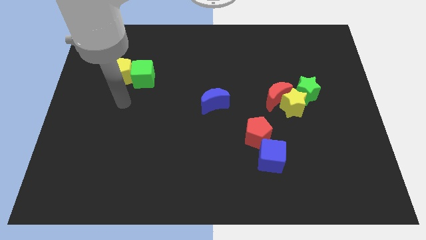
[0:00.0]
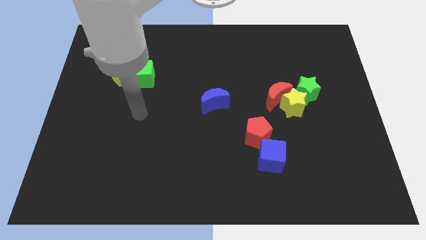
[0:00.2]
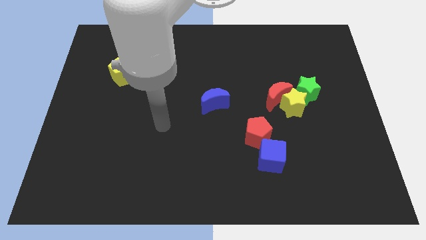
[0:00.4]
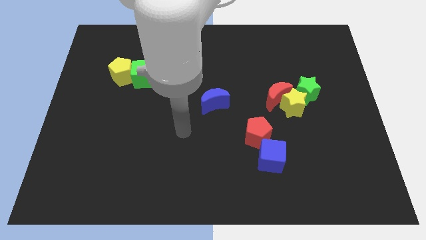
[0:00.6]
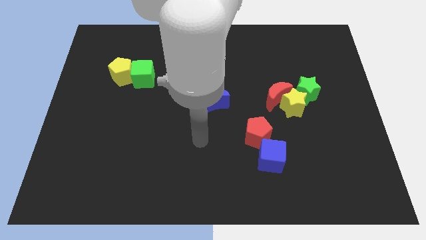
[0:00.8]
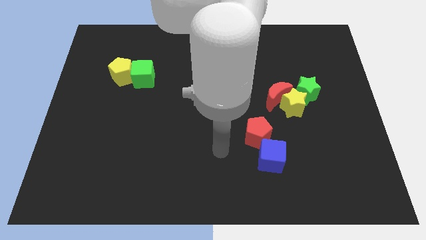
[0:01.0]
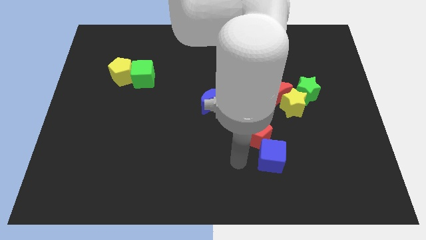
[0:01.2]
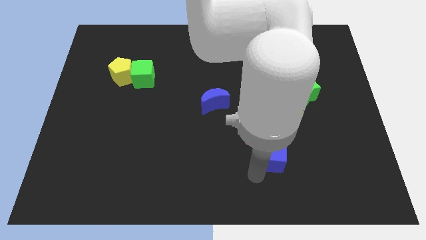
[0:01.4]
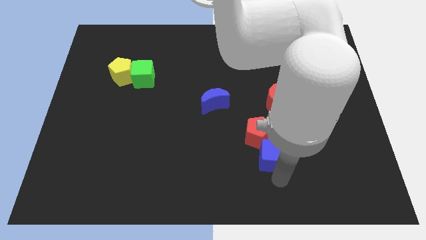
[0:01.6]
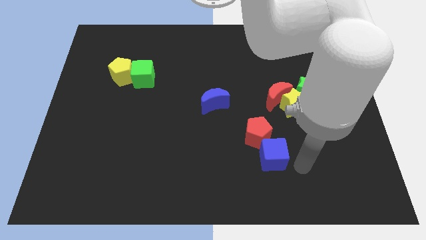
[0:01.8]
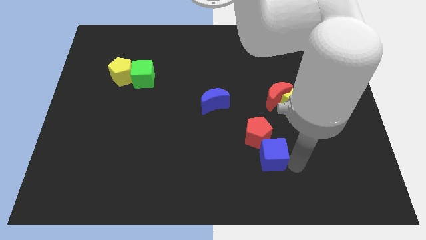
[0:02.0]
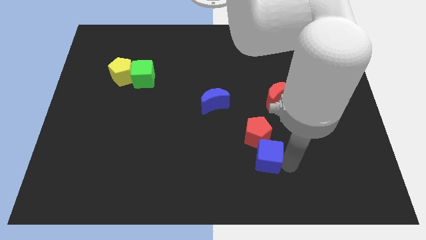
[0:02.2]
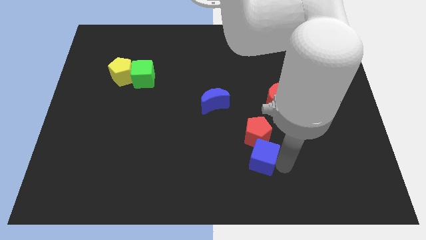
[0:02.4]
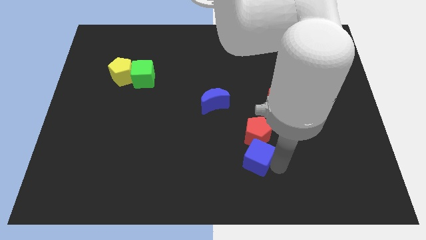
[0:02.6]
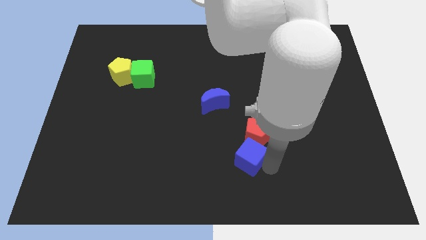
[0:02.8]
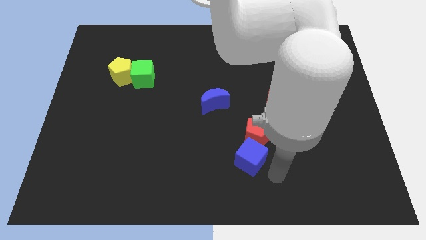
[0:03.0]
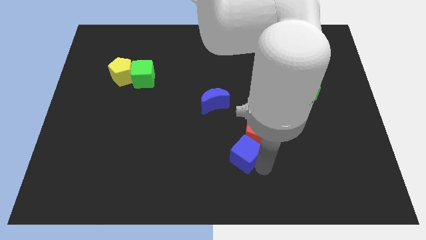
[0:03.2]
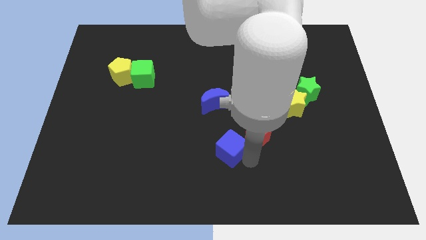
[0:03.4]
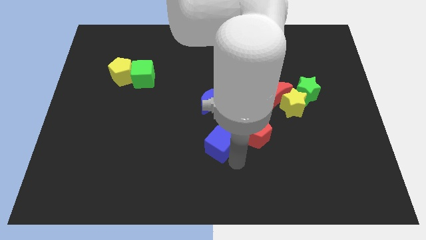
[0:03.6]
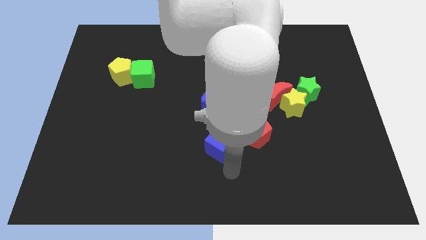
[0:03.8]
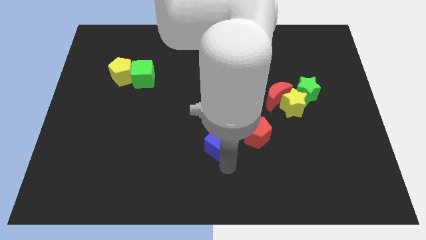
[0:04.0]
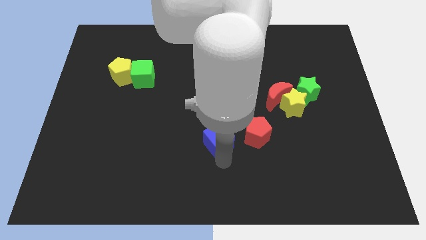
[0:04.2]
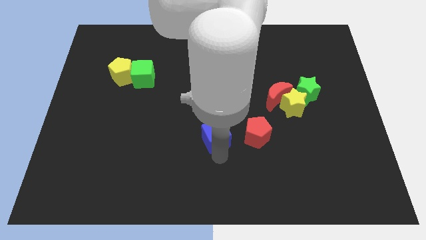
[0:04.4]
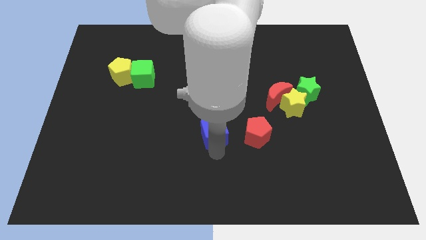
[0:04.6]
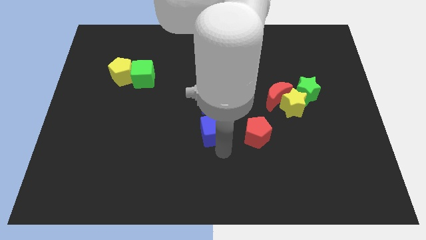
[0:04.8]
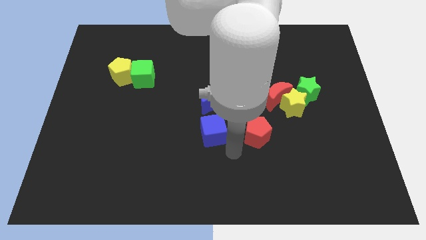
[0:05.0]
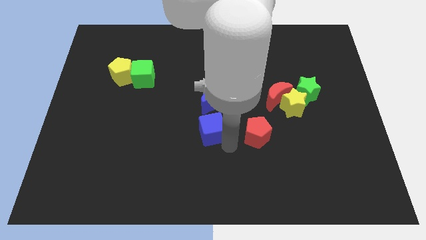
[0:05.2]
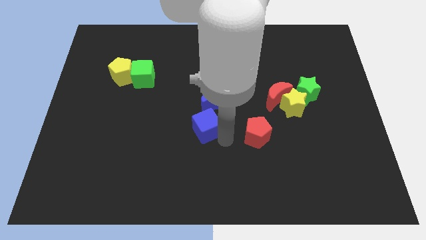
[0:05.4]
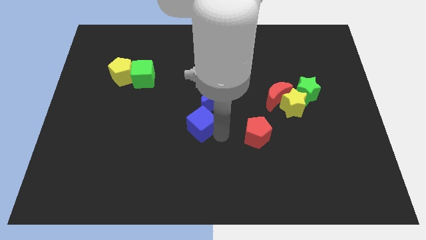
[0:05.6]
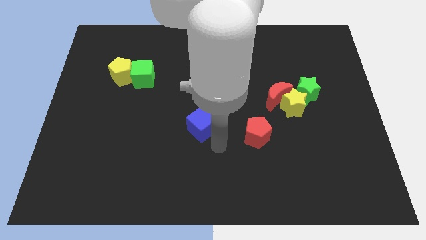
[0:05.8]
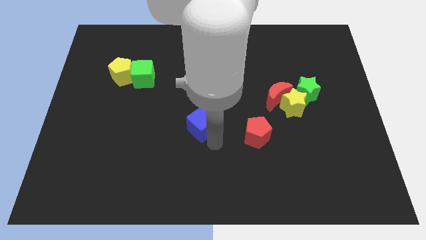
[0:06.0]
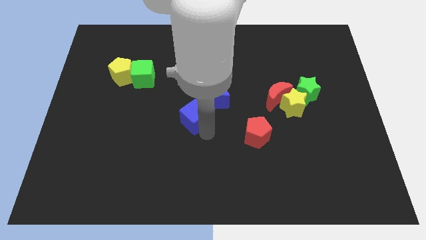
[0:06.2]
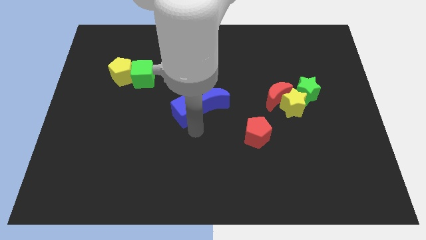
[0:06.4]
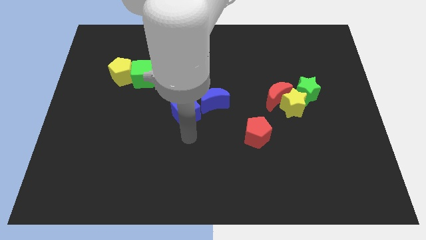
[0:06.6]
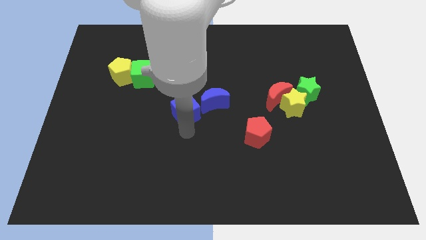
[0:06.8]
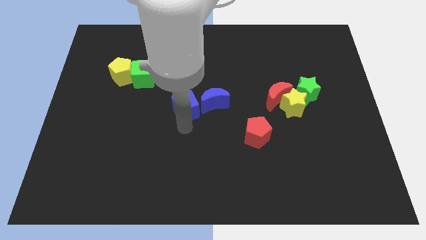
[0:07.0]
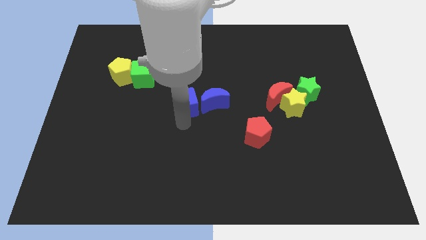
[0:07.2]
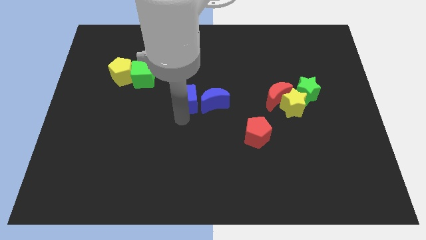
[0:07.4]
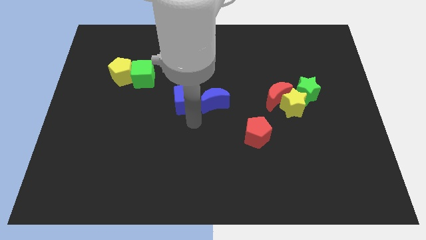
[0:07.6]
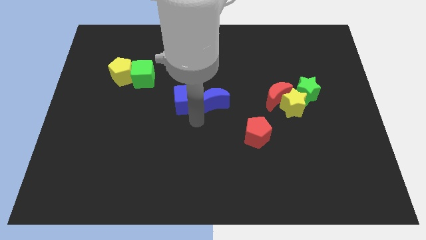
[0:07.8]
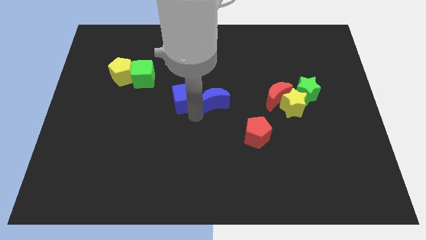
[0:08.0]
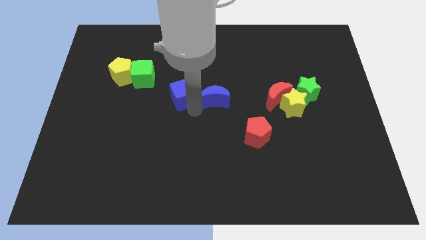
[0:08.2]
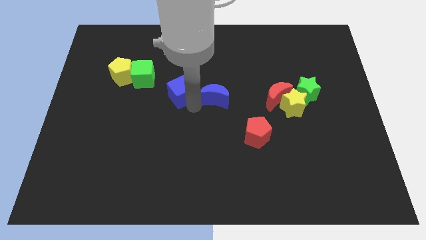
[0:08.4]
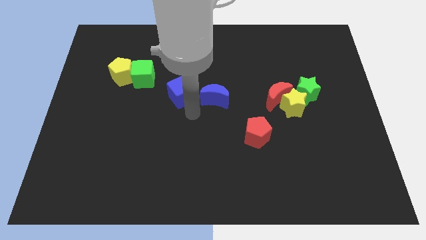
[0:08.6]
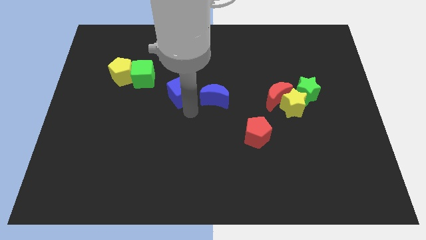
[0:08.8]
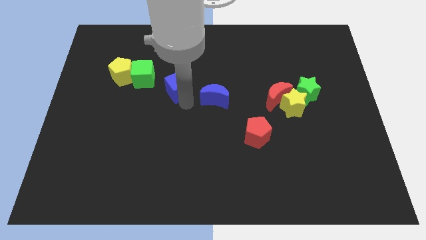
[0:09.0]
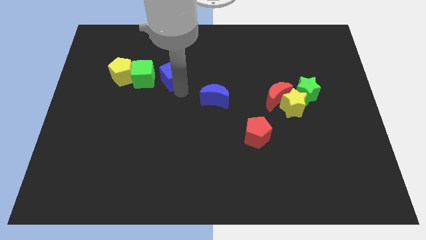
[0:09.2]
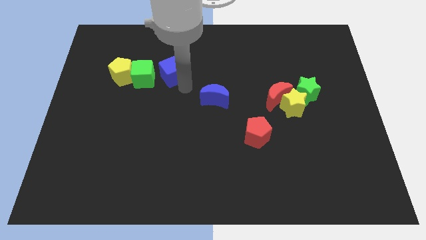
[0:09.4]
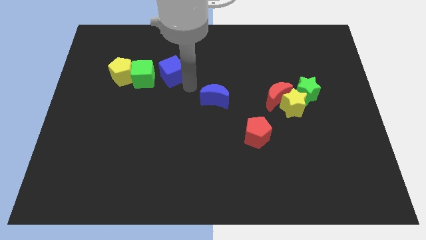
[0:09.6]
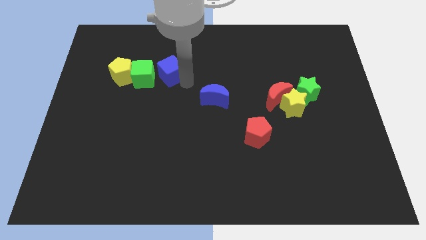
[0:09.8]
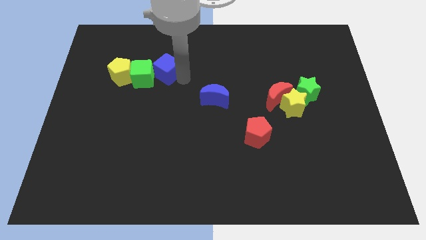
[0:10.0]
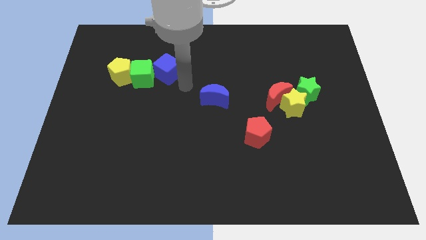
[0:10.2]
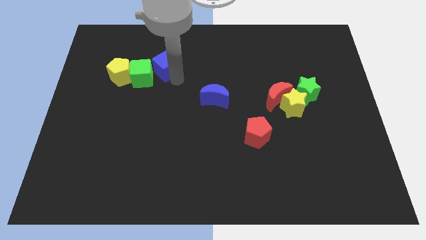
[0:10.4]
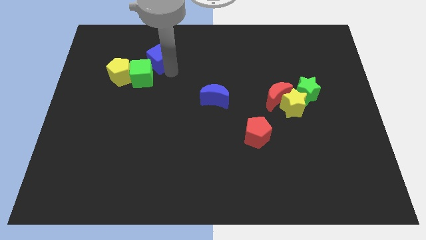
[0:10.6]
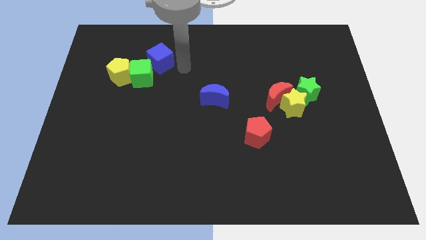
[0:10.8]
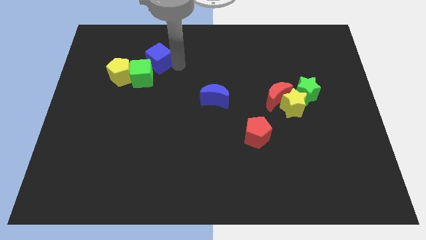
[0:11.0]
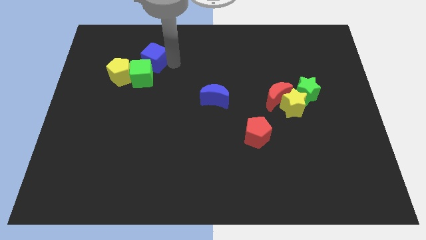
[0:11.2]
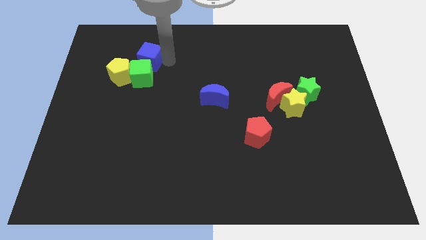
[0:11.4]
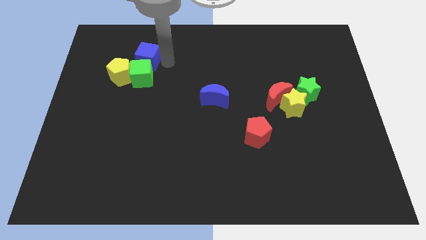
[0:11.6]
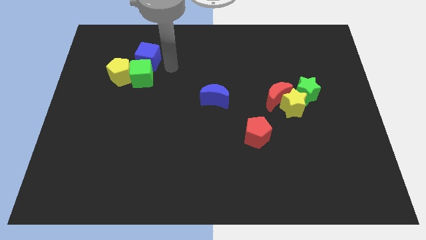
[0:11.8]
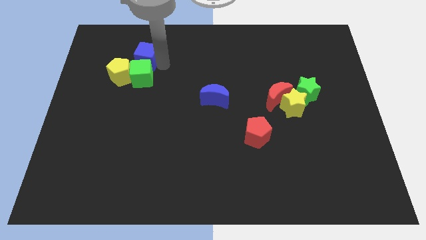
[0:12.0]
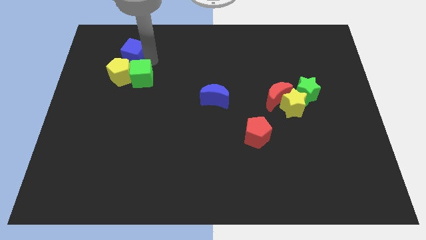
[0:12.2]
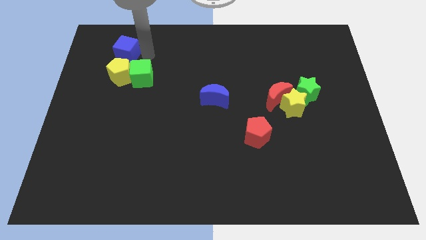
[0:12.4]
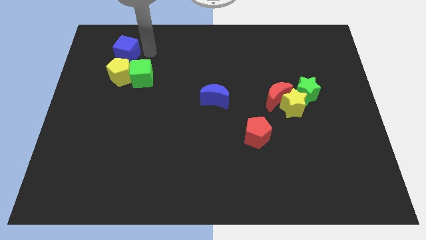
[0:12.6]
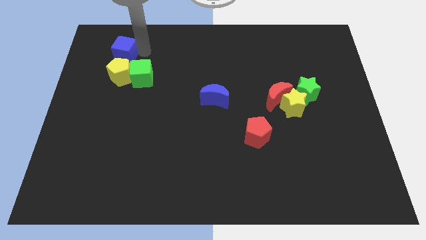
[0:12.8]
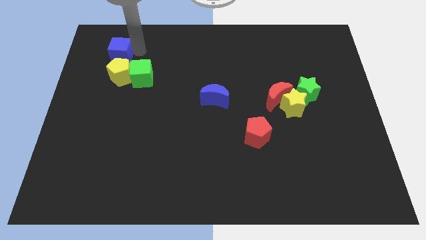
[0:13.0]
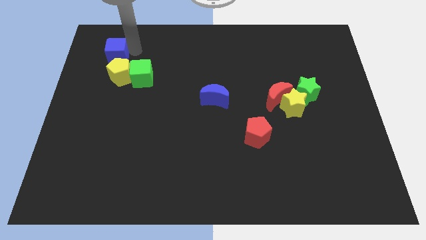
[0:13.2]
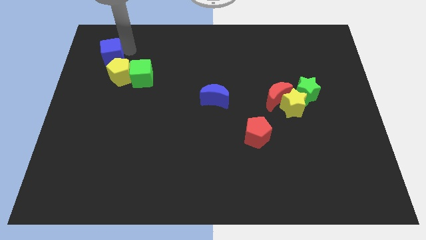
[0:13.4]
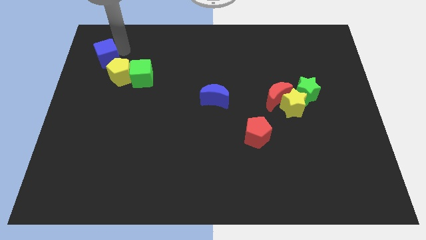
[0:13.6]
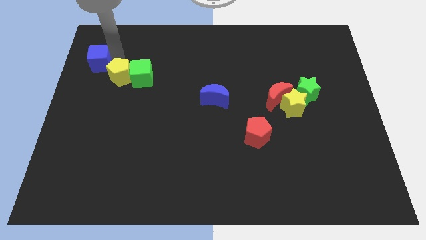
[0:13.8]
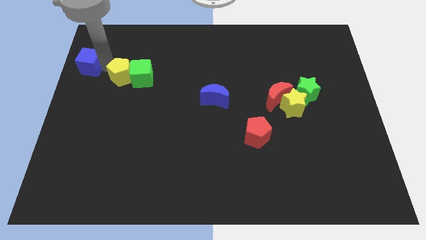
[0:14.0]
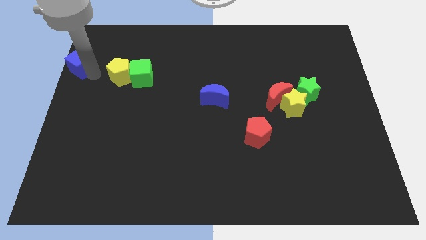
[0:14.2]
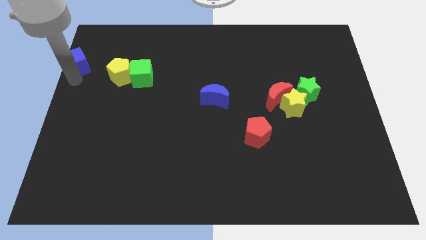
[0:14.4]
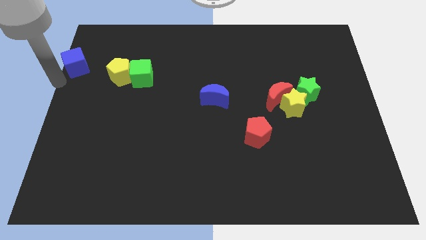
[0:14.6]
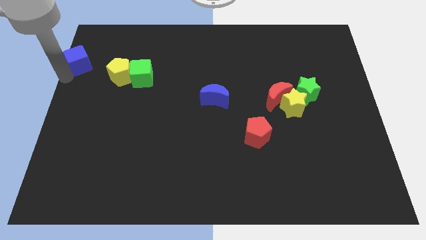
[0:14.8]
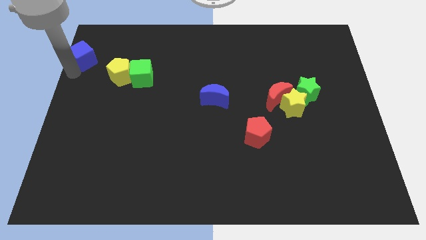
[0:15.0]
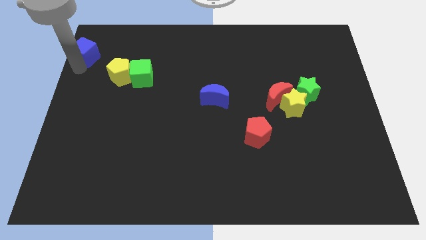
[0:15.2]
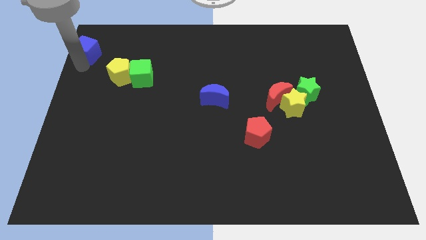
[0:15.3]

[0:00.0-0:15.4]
put the blue cube to the top left
